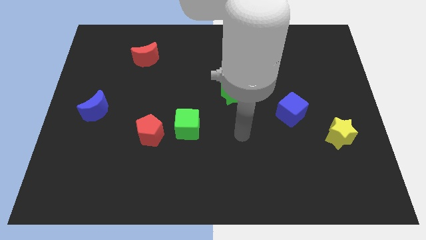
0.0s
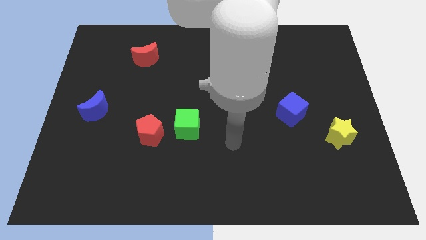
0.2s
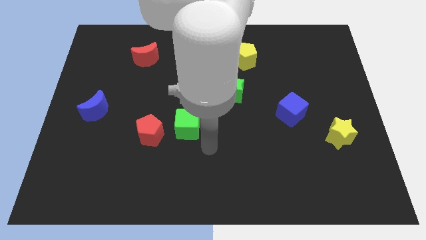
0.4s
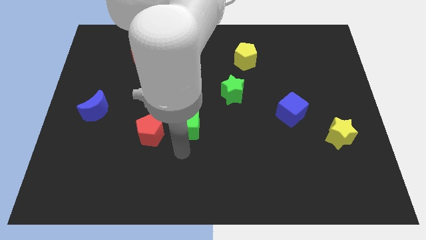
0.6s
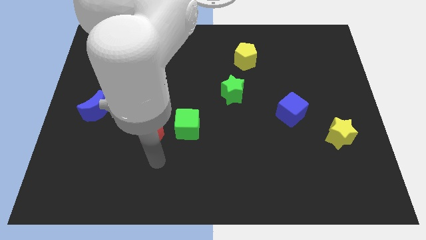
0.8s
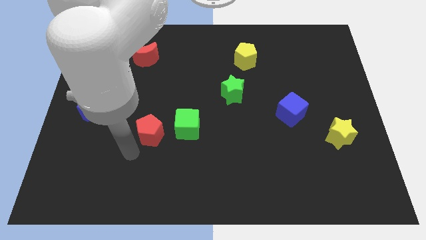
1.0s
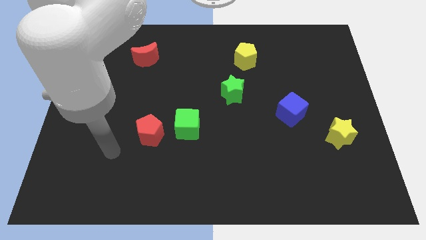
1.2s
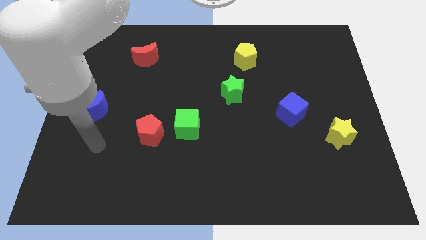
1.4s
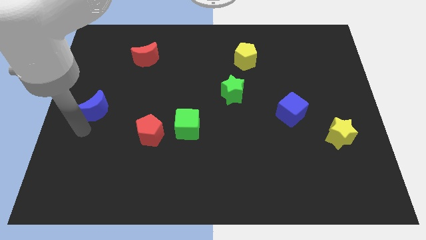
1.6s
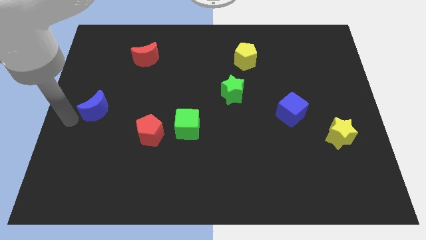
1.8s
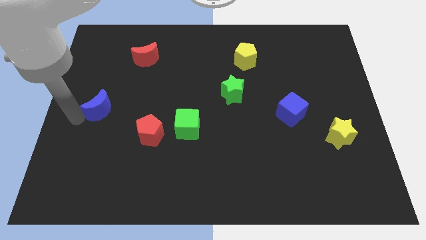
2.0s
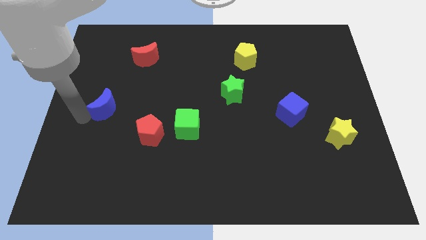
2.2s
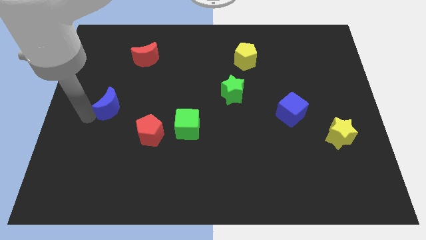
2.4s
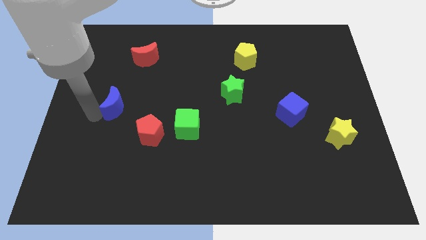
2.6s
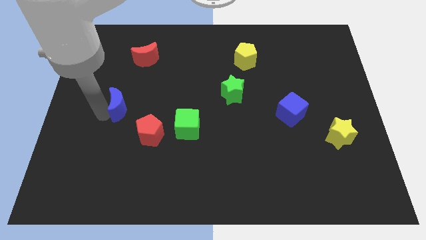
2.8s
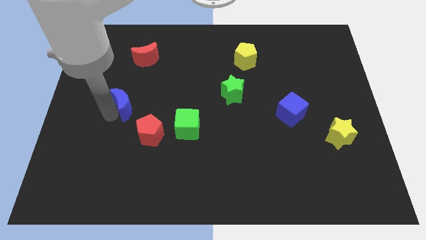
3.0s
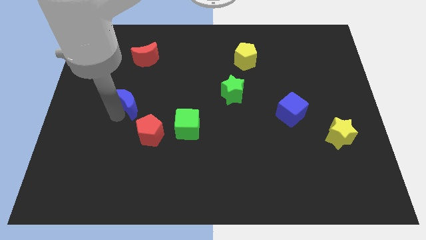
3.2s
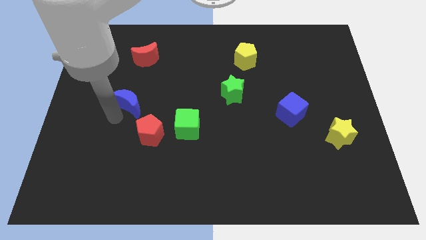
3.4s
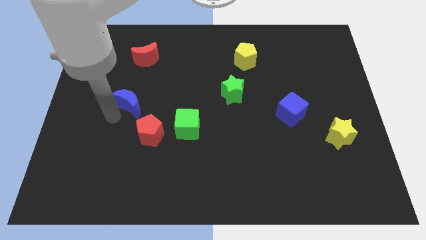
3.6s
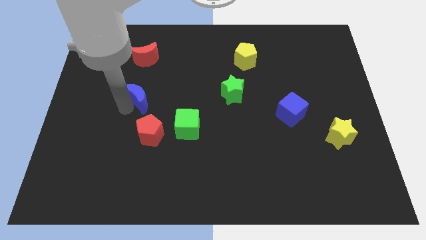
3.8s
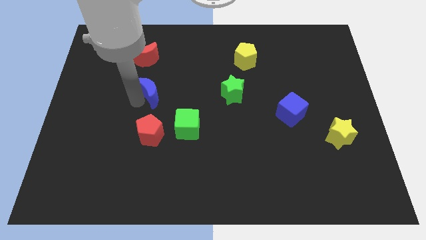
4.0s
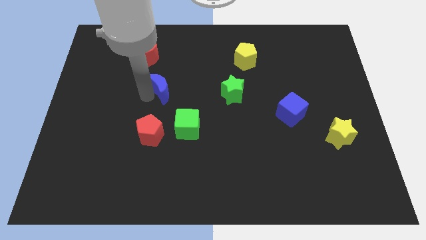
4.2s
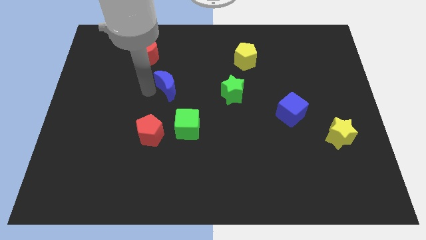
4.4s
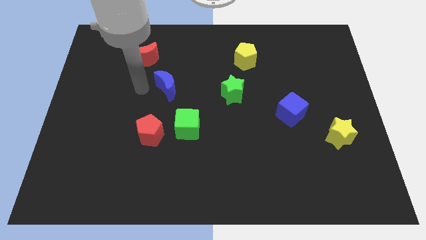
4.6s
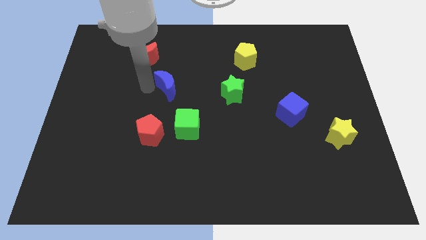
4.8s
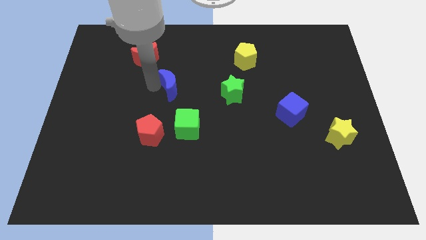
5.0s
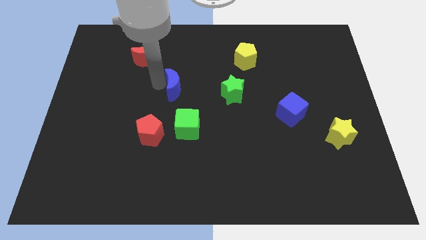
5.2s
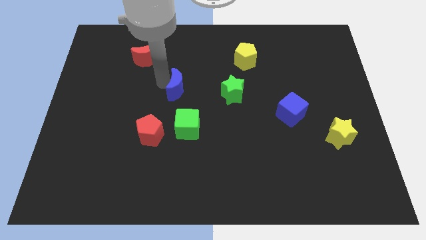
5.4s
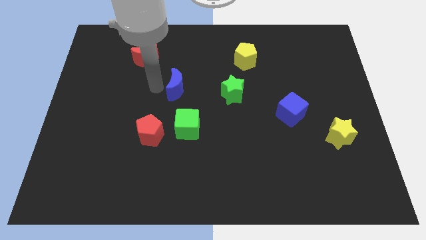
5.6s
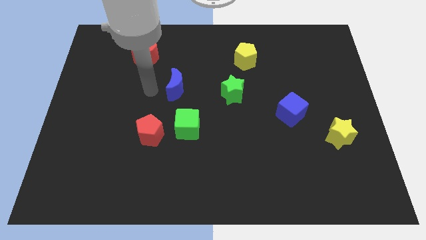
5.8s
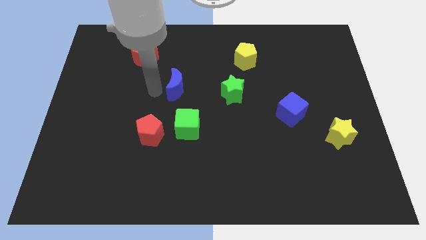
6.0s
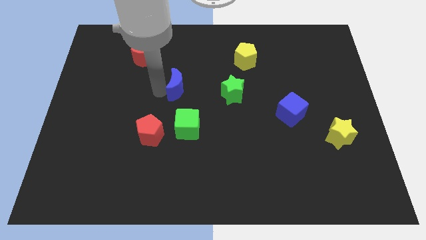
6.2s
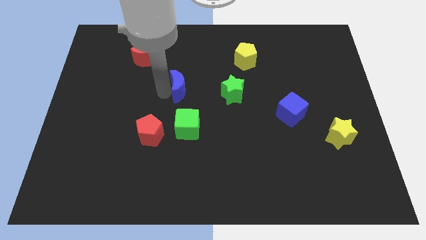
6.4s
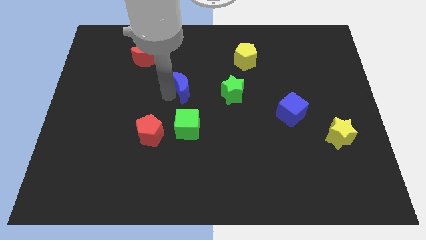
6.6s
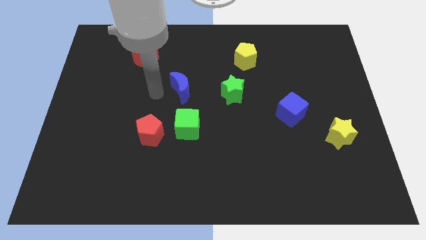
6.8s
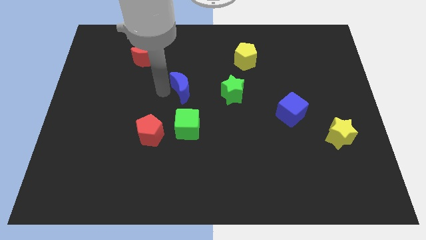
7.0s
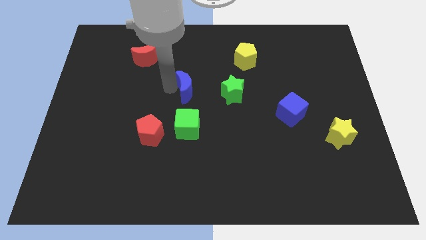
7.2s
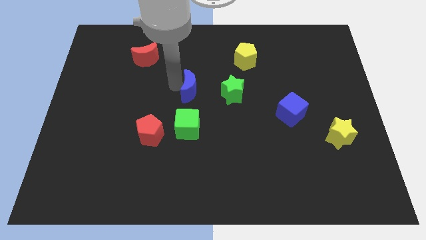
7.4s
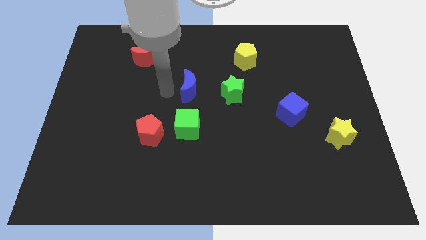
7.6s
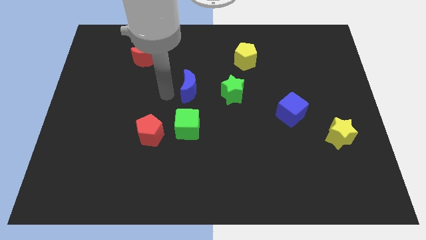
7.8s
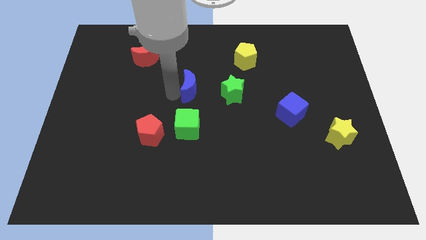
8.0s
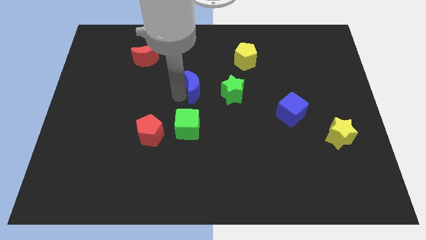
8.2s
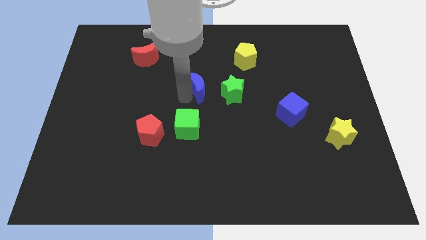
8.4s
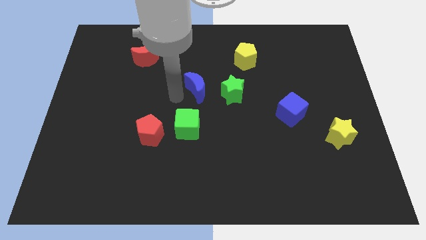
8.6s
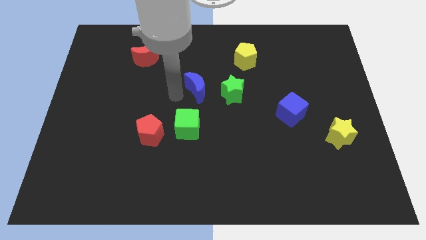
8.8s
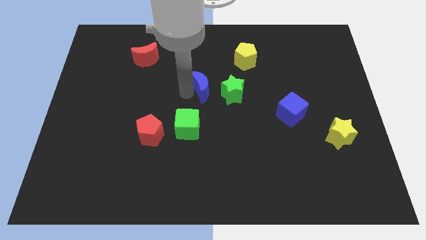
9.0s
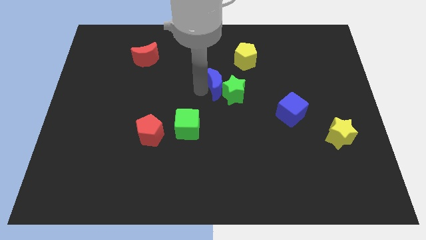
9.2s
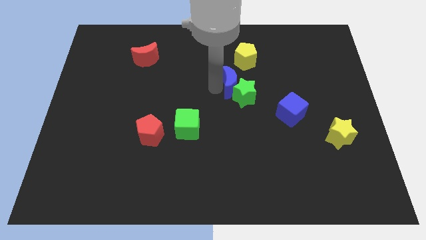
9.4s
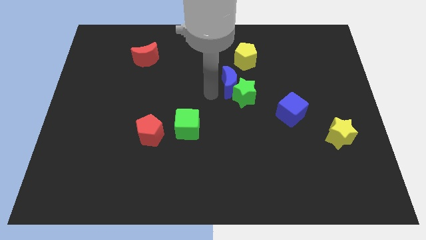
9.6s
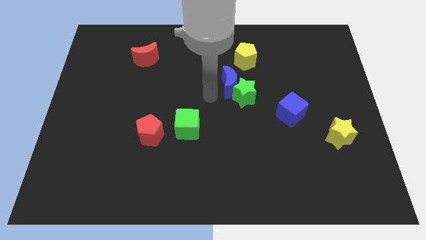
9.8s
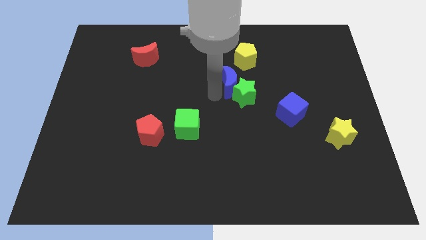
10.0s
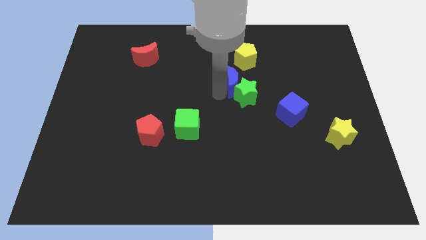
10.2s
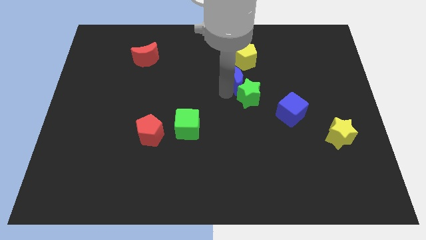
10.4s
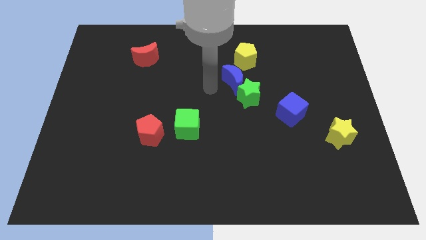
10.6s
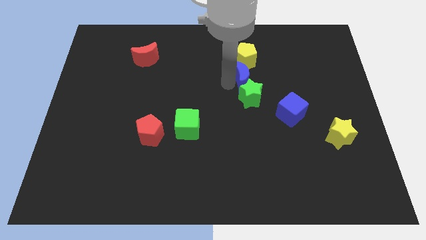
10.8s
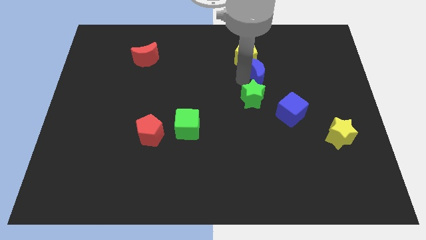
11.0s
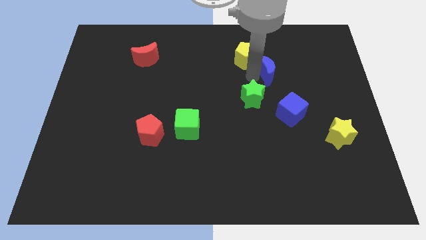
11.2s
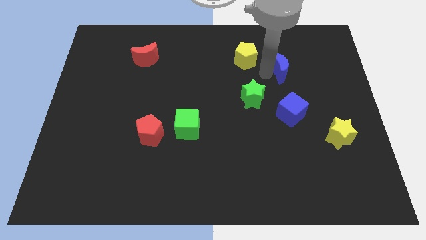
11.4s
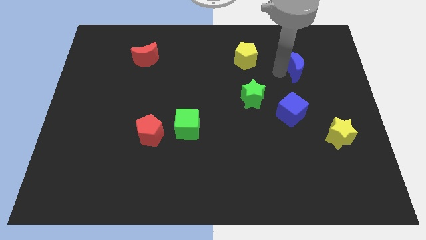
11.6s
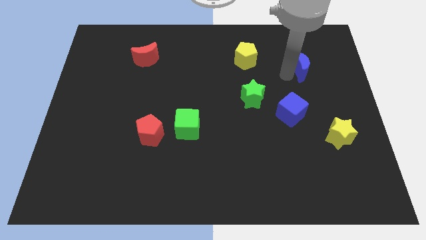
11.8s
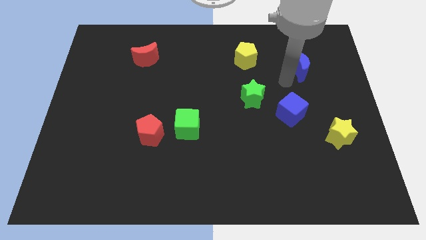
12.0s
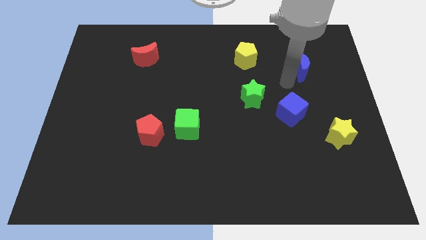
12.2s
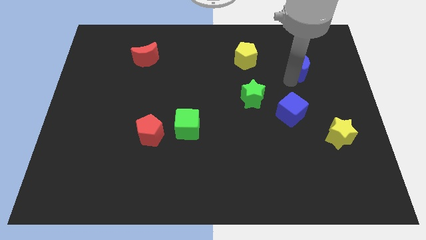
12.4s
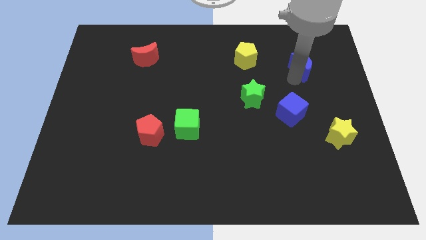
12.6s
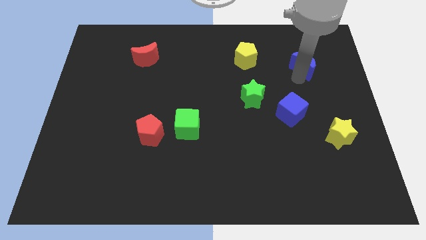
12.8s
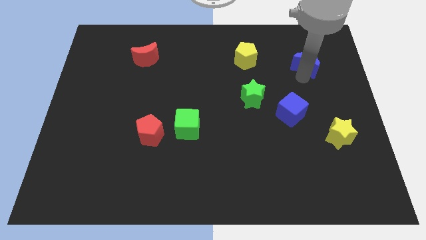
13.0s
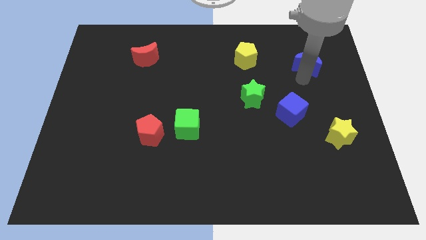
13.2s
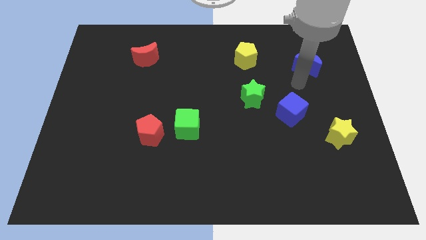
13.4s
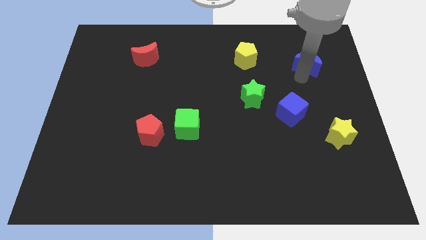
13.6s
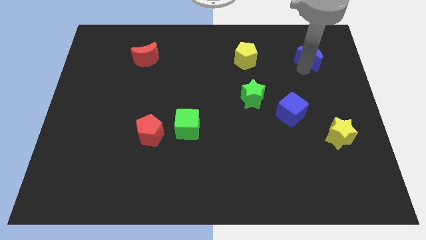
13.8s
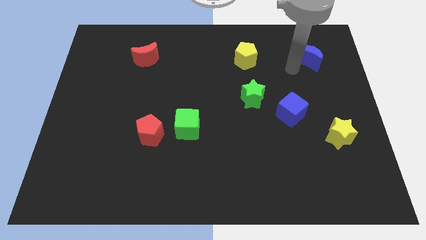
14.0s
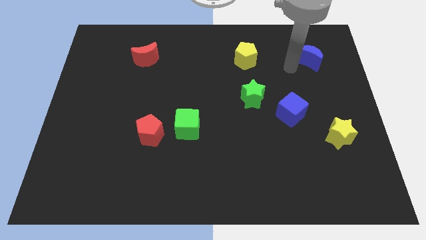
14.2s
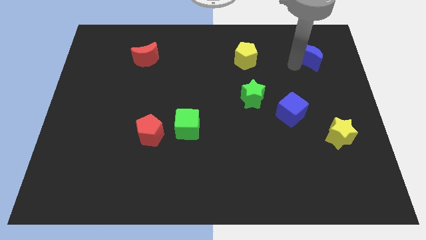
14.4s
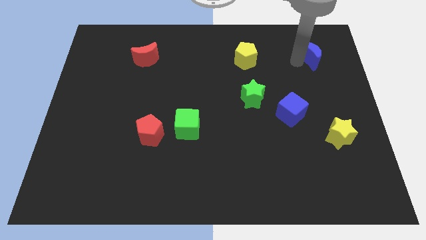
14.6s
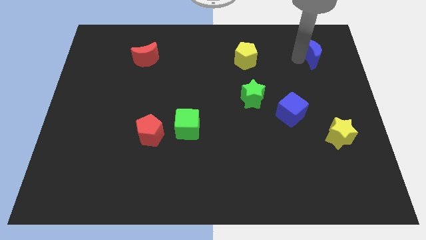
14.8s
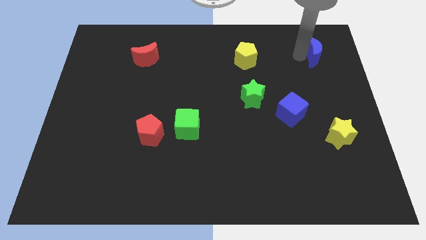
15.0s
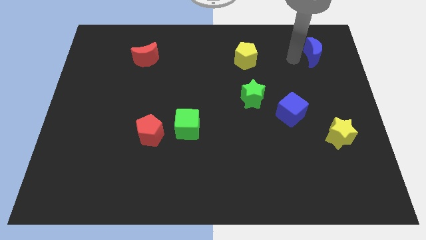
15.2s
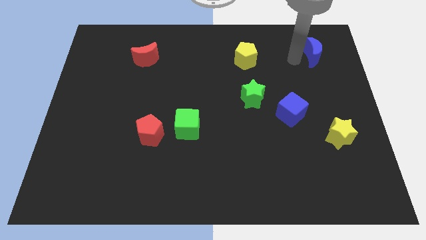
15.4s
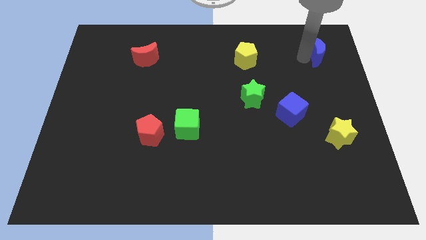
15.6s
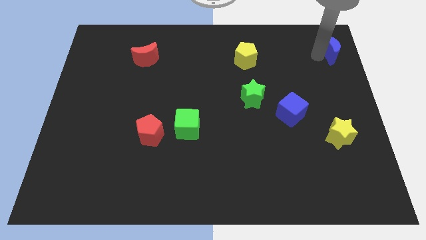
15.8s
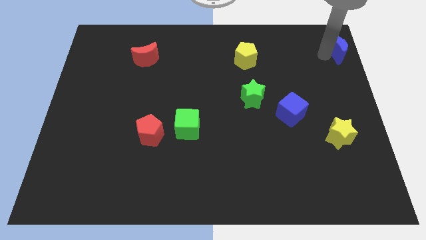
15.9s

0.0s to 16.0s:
push the blue moon to the top right corner
